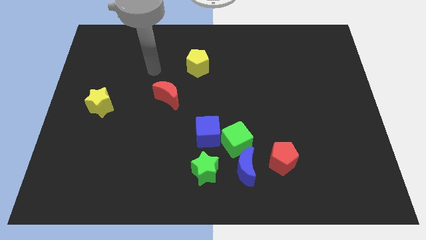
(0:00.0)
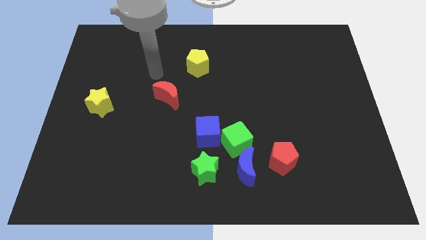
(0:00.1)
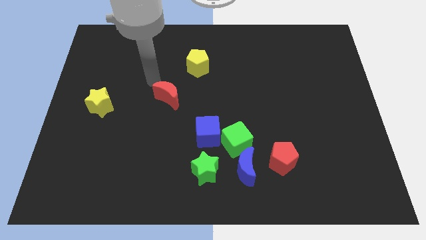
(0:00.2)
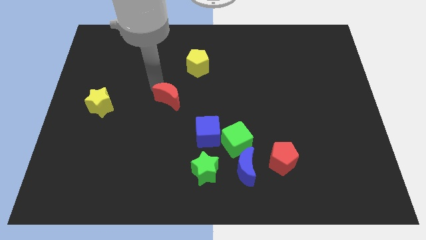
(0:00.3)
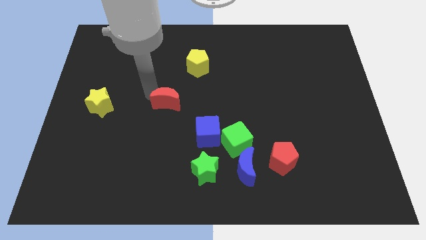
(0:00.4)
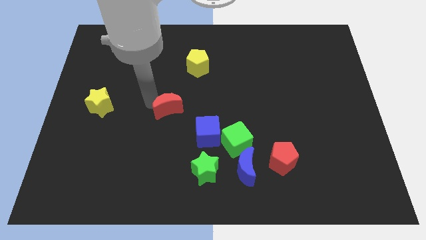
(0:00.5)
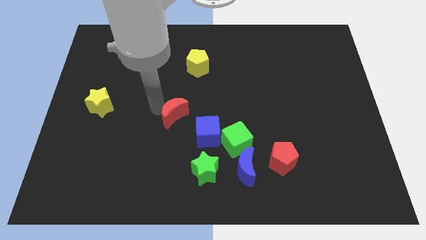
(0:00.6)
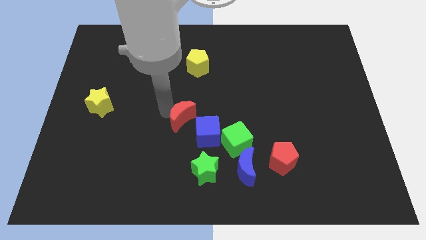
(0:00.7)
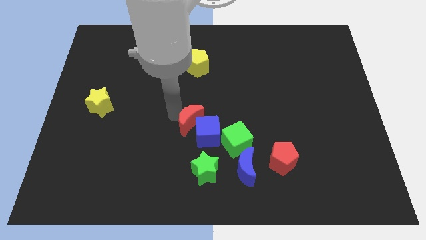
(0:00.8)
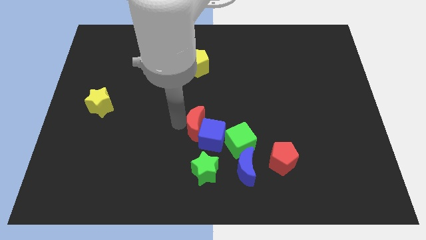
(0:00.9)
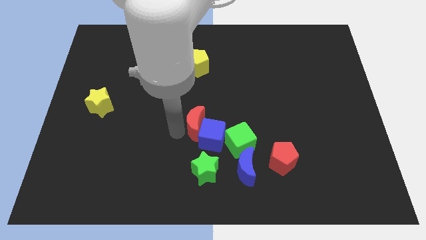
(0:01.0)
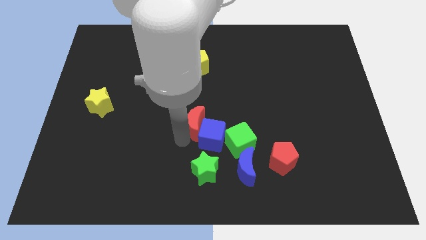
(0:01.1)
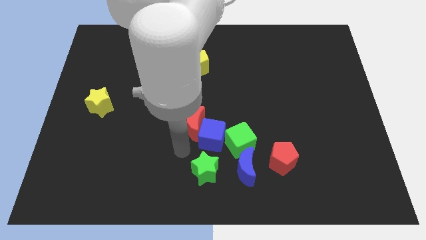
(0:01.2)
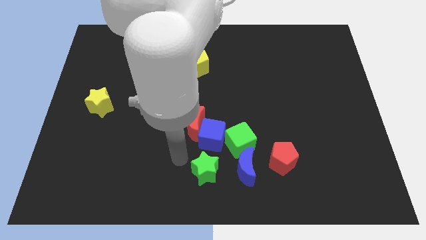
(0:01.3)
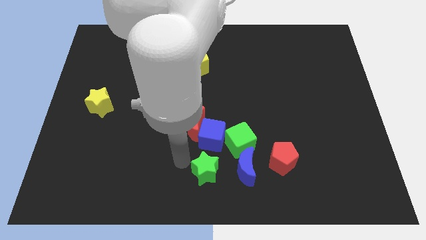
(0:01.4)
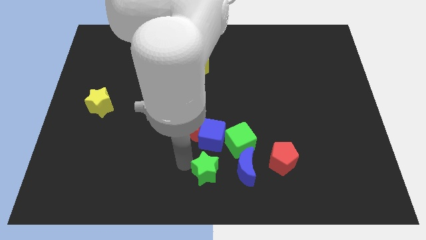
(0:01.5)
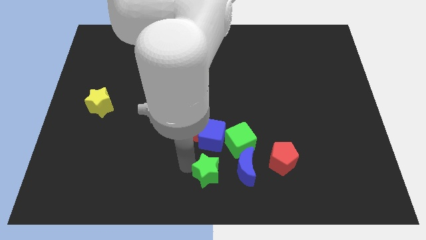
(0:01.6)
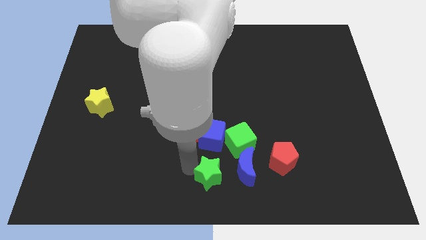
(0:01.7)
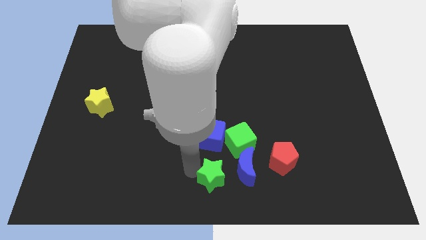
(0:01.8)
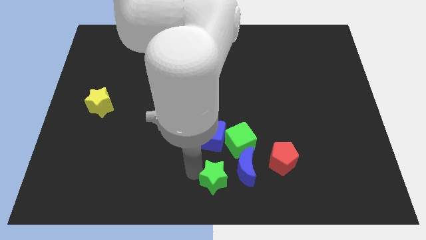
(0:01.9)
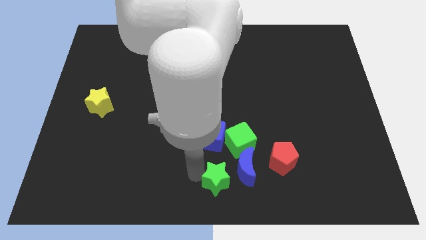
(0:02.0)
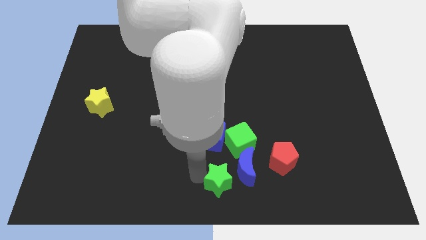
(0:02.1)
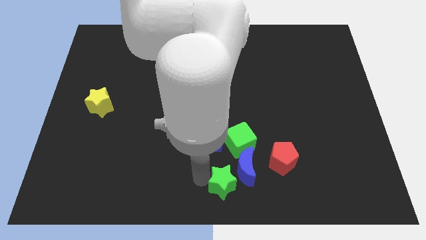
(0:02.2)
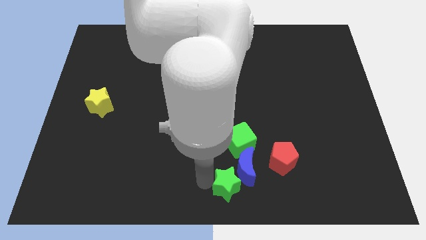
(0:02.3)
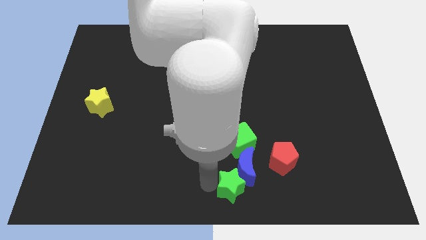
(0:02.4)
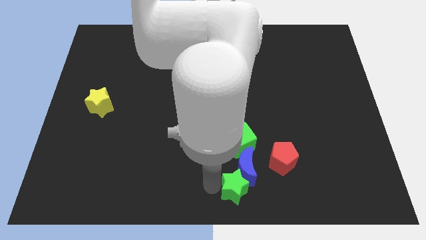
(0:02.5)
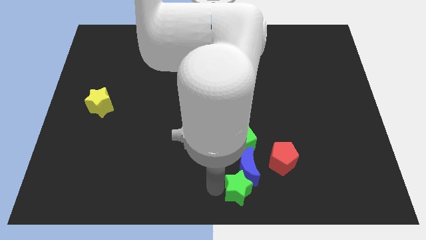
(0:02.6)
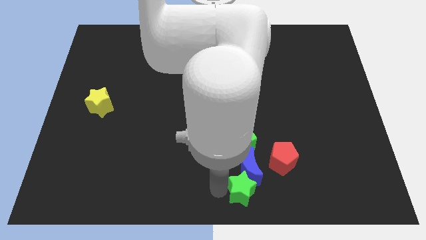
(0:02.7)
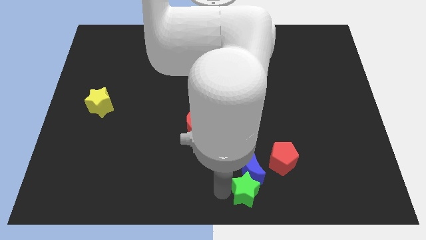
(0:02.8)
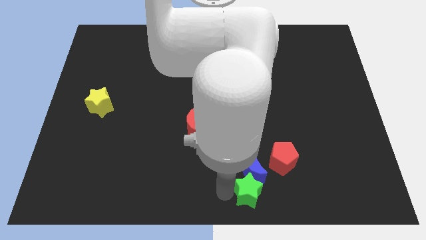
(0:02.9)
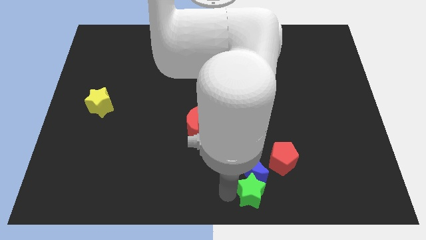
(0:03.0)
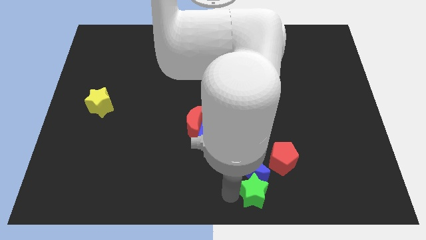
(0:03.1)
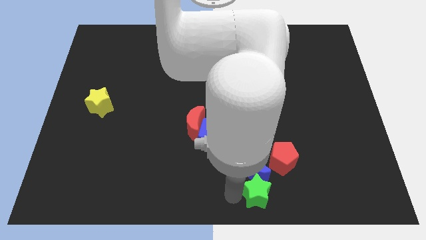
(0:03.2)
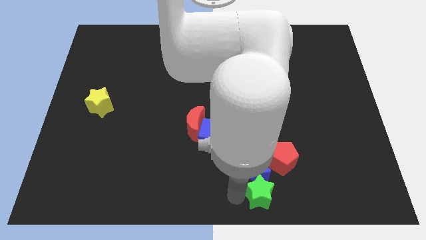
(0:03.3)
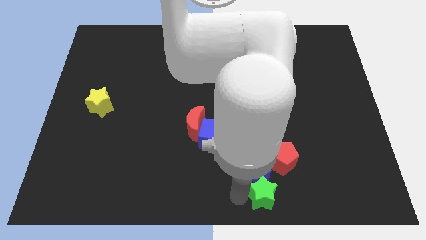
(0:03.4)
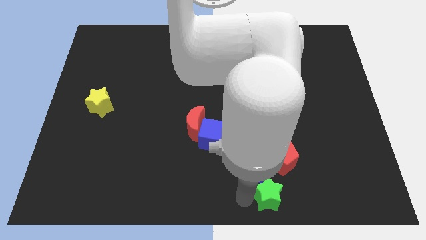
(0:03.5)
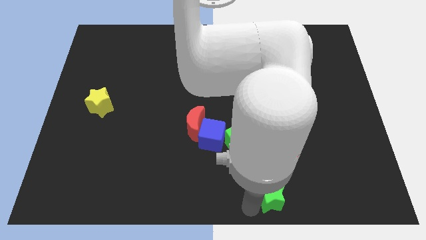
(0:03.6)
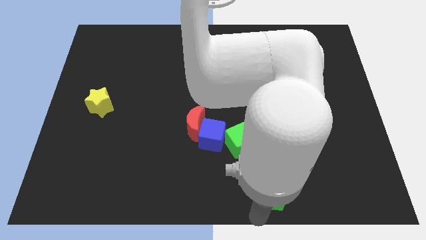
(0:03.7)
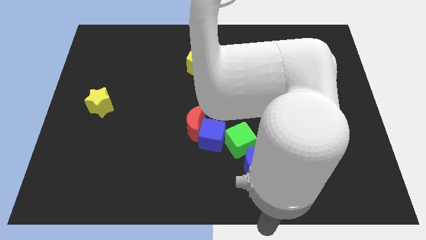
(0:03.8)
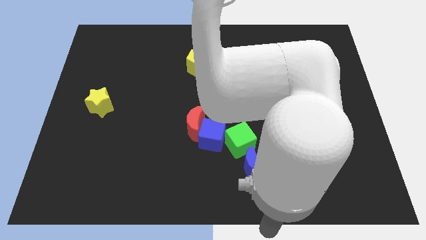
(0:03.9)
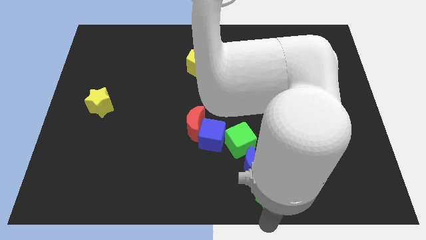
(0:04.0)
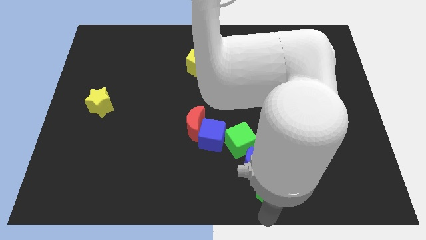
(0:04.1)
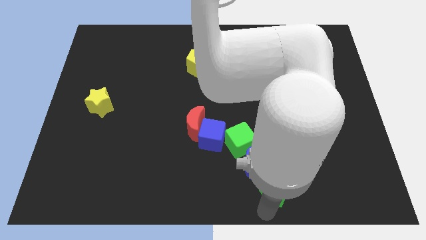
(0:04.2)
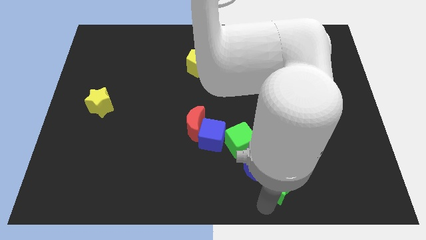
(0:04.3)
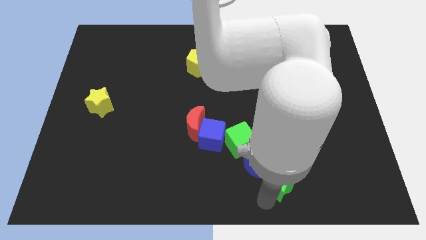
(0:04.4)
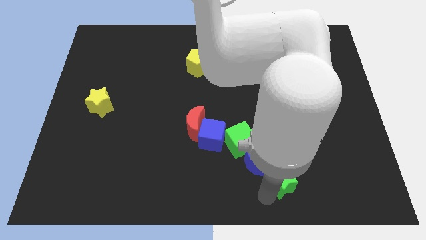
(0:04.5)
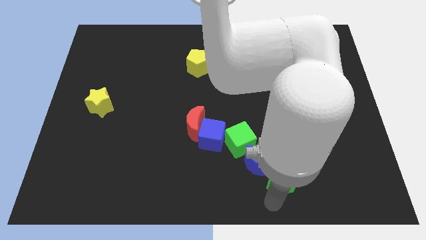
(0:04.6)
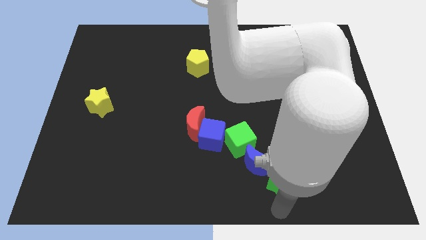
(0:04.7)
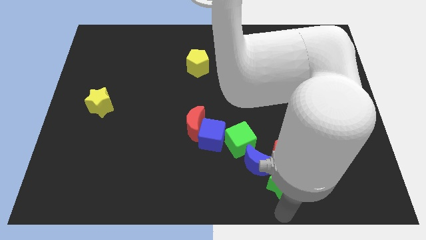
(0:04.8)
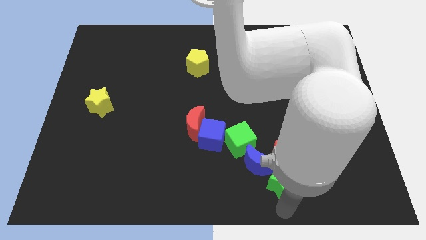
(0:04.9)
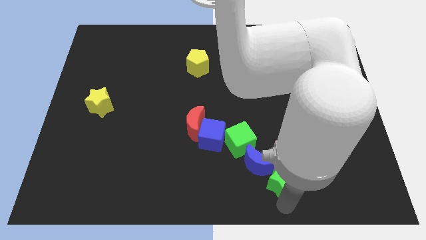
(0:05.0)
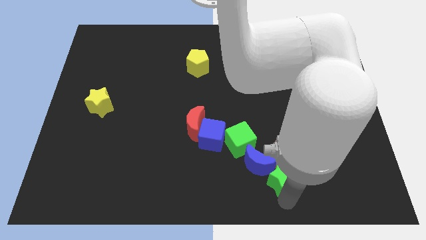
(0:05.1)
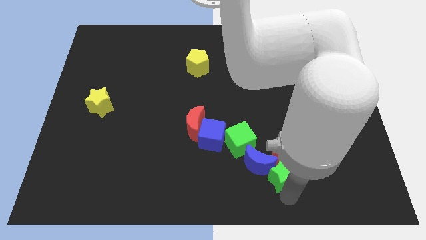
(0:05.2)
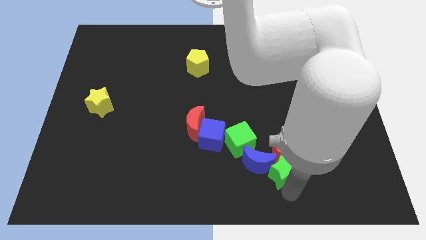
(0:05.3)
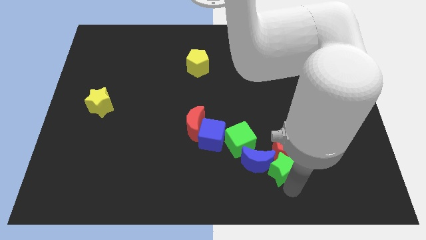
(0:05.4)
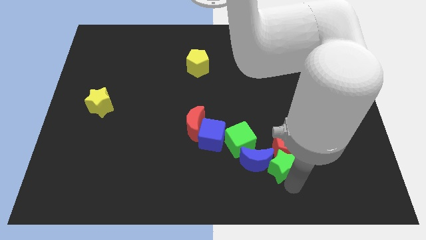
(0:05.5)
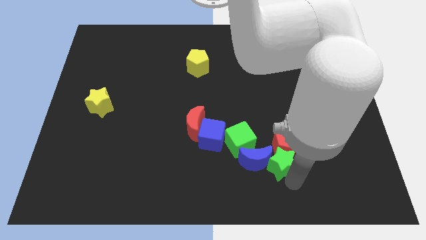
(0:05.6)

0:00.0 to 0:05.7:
slide the green star diagonally up and to the right of the blue moon

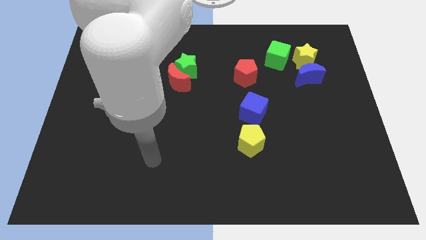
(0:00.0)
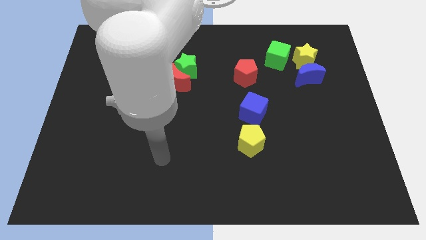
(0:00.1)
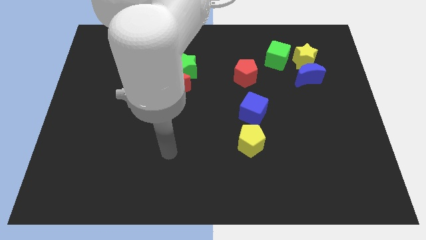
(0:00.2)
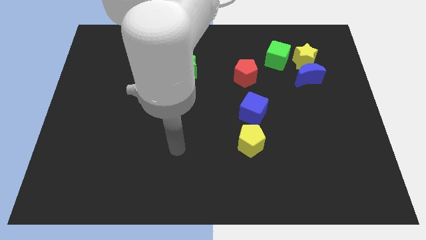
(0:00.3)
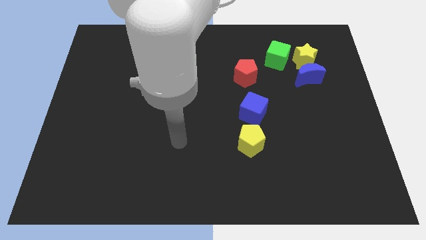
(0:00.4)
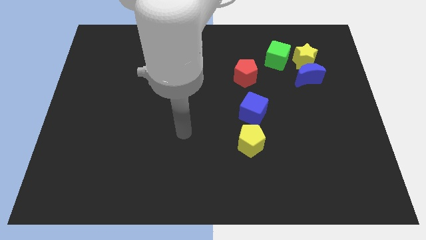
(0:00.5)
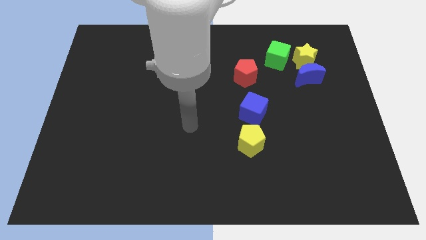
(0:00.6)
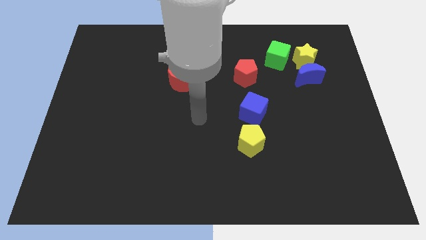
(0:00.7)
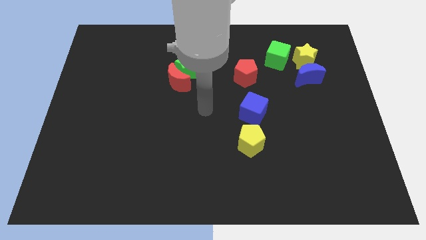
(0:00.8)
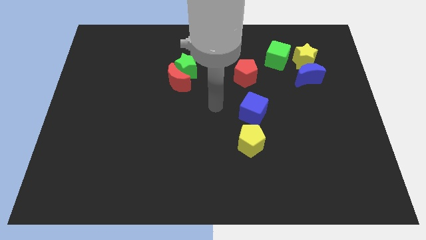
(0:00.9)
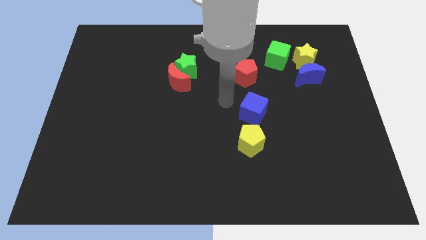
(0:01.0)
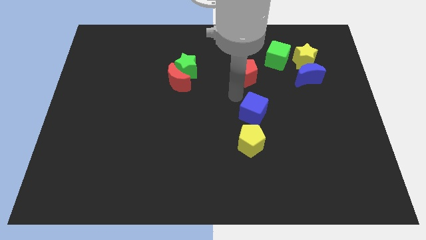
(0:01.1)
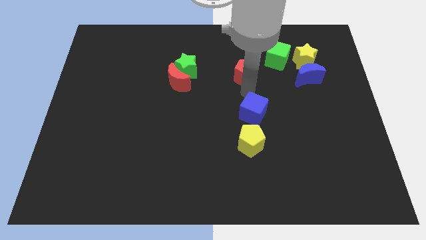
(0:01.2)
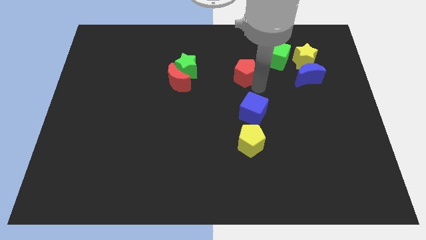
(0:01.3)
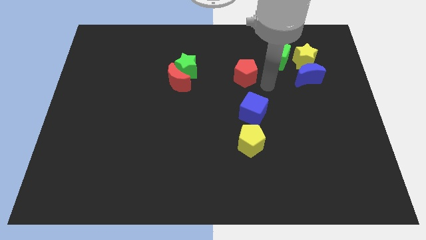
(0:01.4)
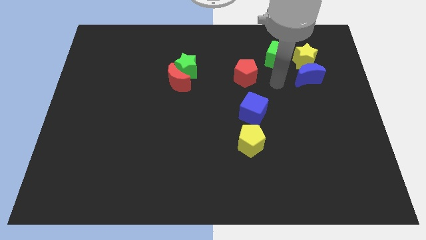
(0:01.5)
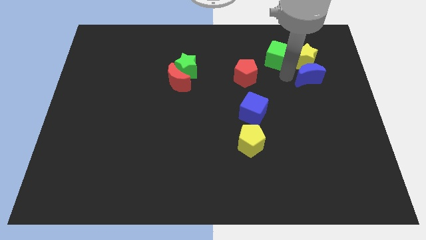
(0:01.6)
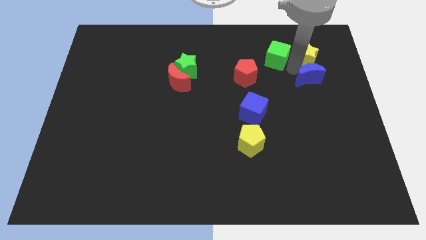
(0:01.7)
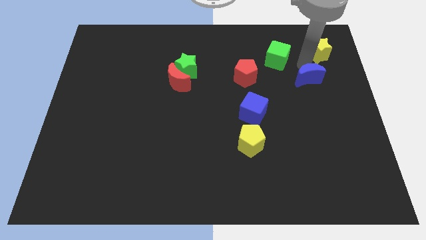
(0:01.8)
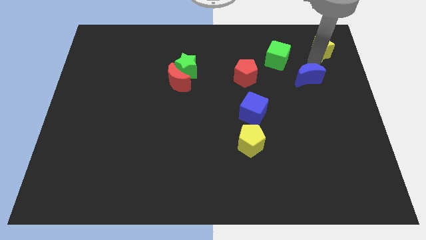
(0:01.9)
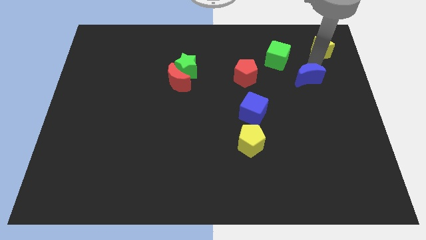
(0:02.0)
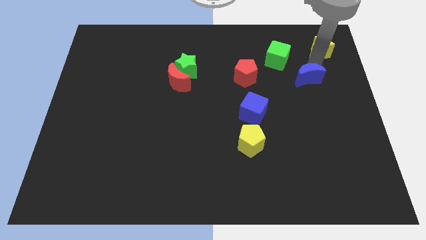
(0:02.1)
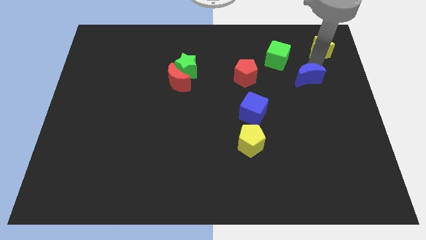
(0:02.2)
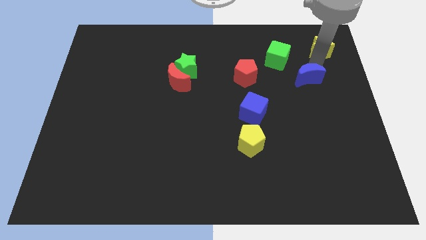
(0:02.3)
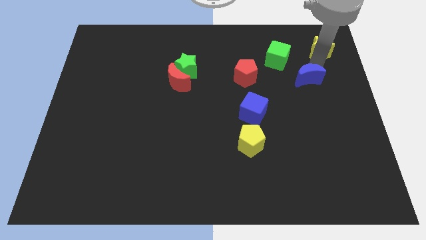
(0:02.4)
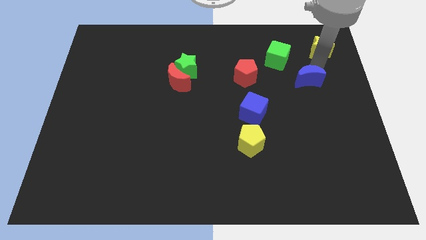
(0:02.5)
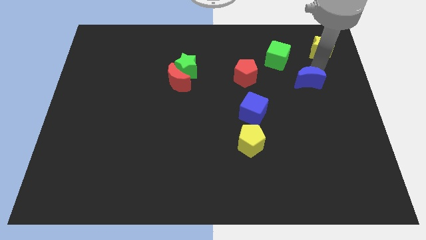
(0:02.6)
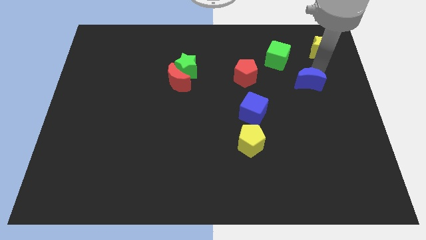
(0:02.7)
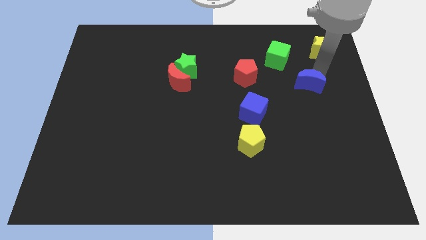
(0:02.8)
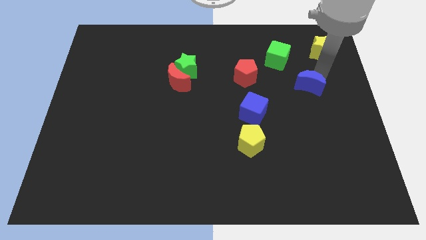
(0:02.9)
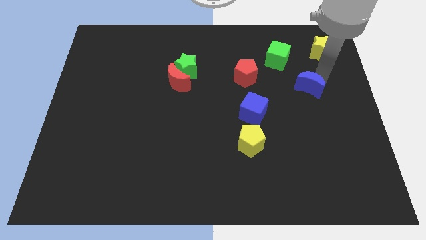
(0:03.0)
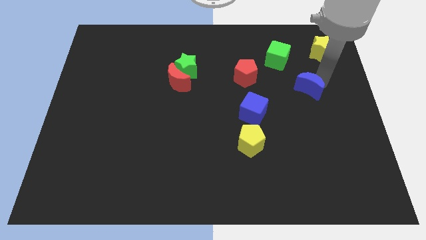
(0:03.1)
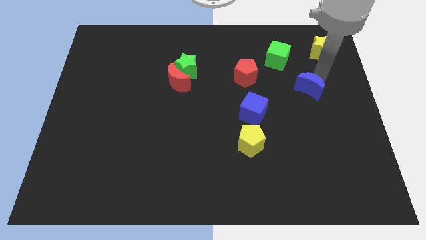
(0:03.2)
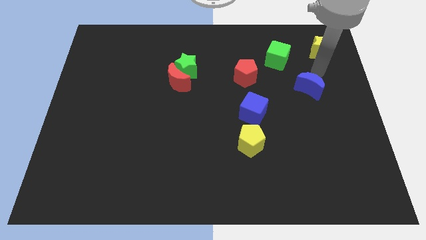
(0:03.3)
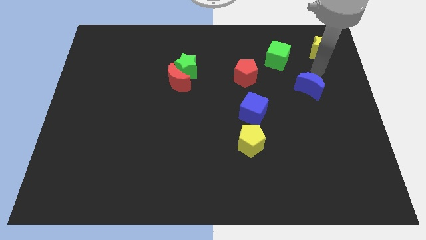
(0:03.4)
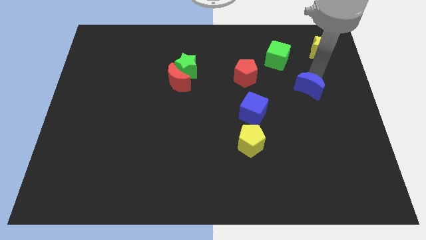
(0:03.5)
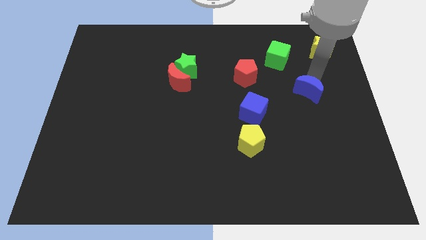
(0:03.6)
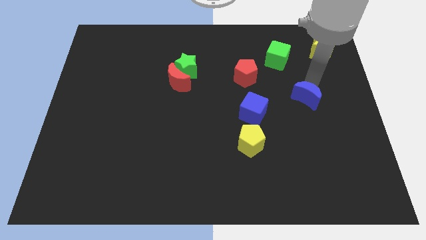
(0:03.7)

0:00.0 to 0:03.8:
push the blue moon to the right of the blue cube
